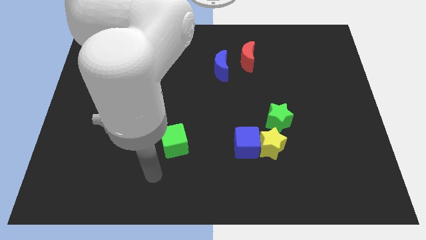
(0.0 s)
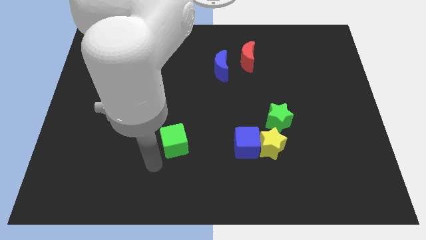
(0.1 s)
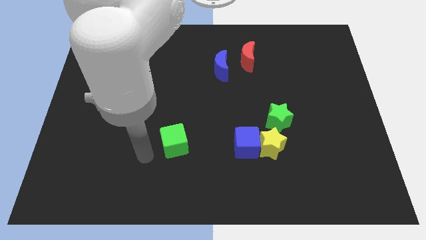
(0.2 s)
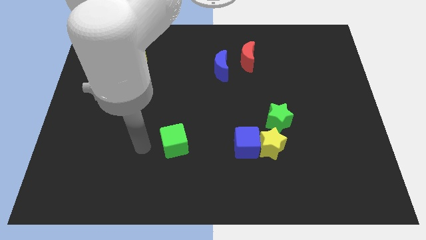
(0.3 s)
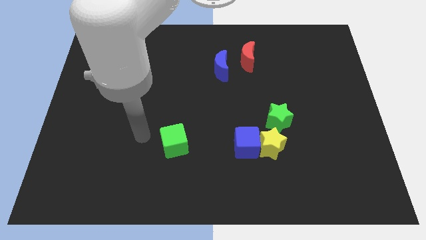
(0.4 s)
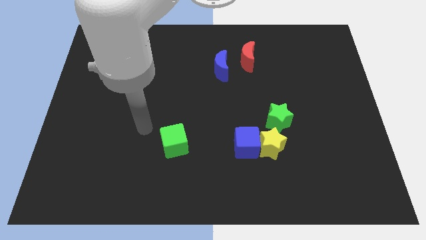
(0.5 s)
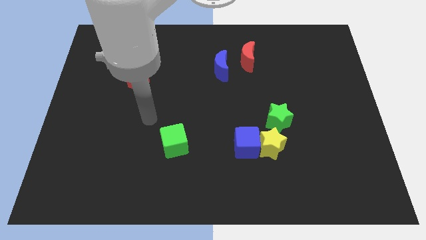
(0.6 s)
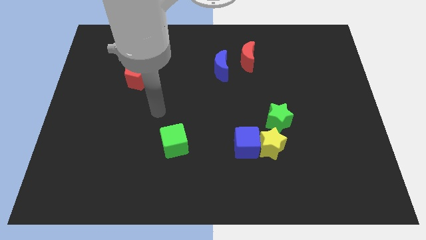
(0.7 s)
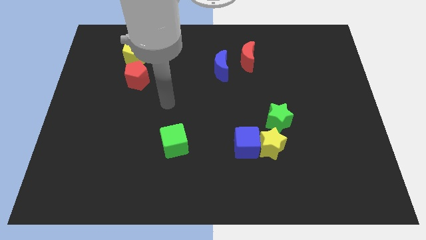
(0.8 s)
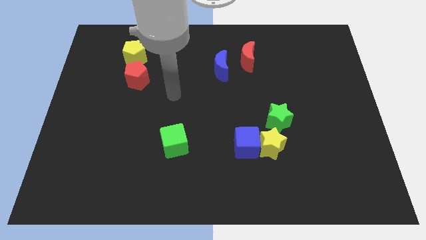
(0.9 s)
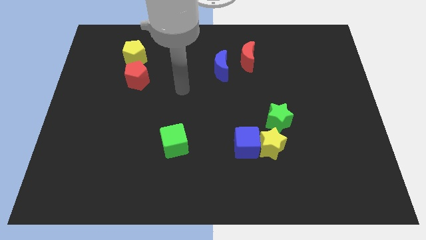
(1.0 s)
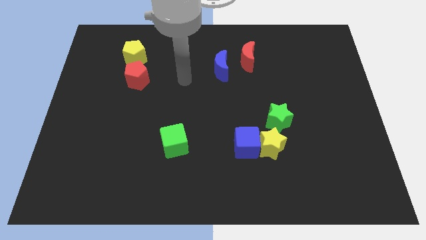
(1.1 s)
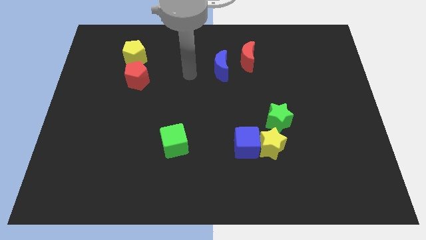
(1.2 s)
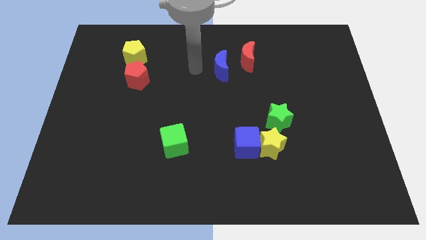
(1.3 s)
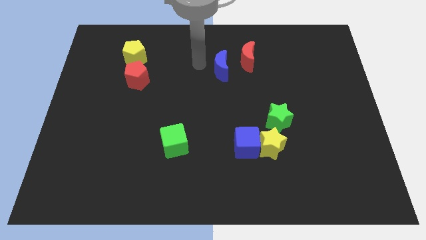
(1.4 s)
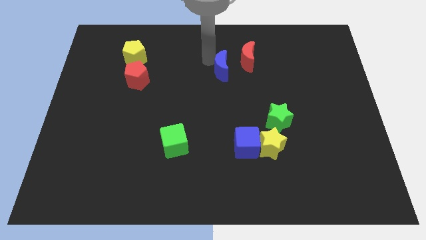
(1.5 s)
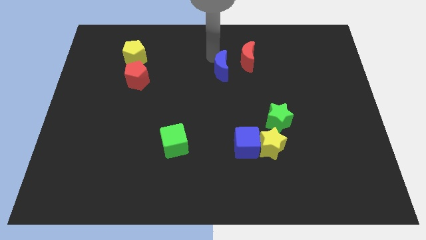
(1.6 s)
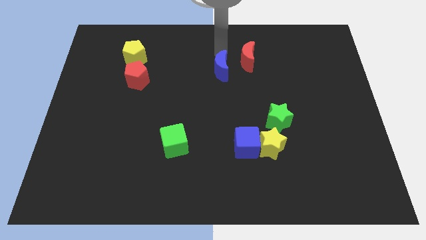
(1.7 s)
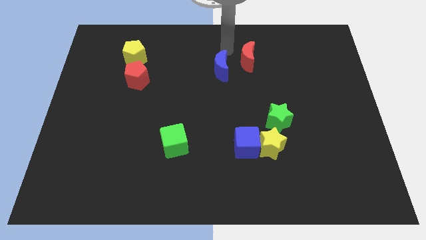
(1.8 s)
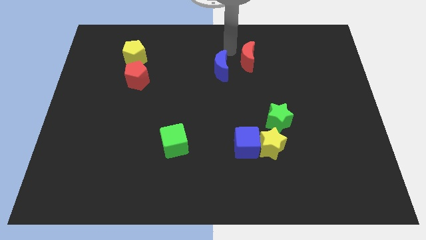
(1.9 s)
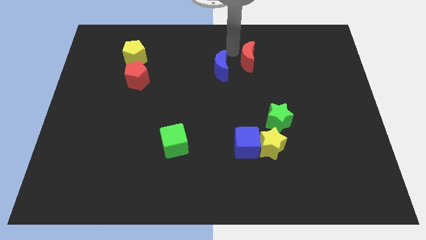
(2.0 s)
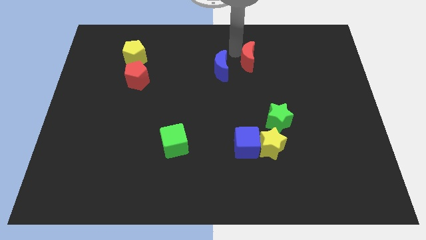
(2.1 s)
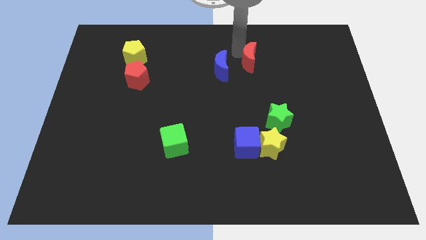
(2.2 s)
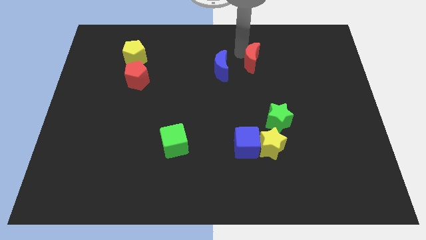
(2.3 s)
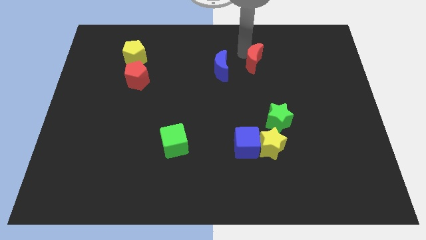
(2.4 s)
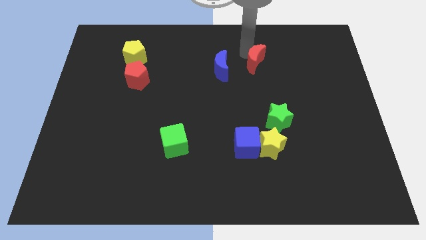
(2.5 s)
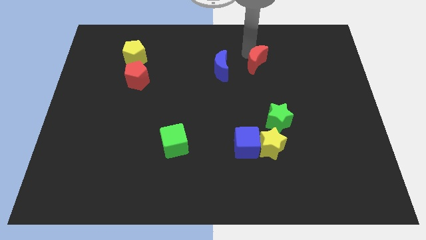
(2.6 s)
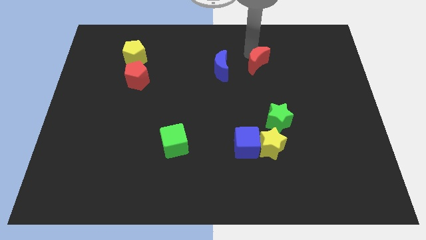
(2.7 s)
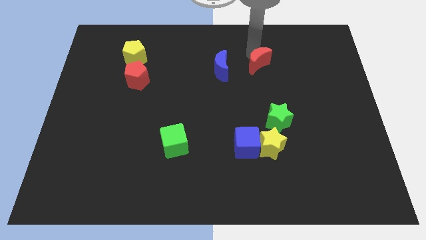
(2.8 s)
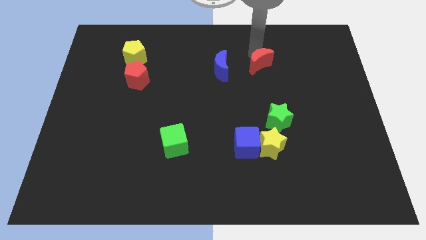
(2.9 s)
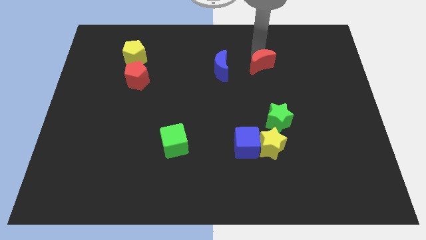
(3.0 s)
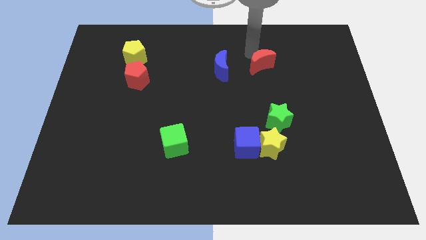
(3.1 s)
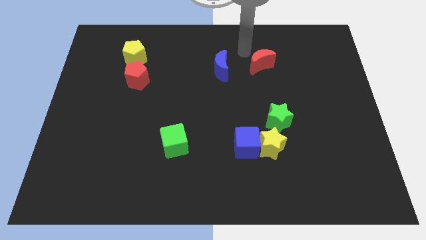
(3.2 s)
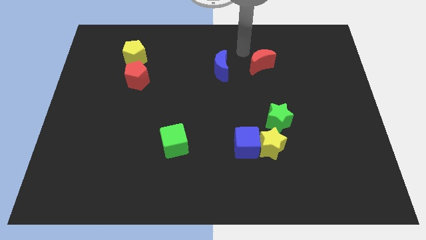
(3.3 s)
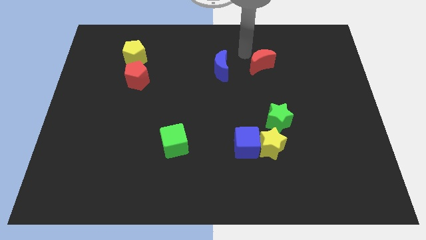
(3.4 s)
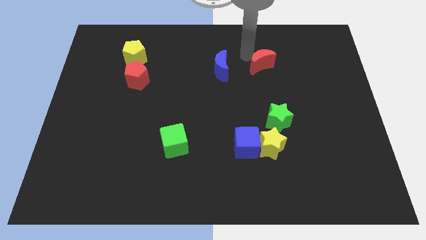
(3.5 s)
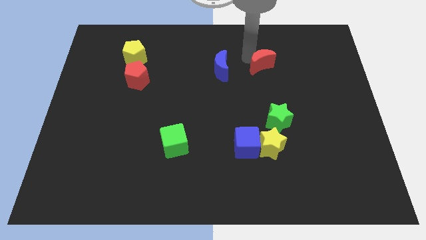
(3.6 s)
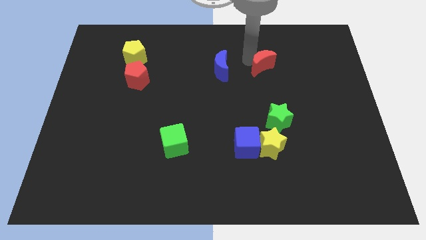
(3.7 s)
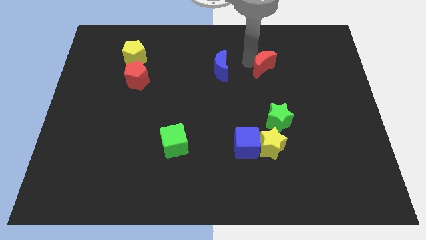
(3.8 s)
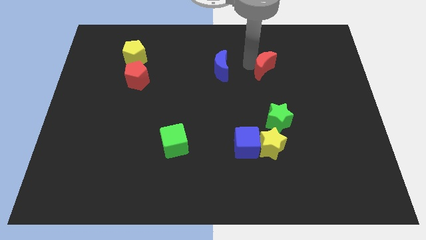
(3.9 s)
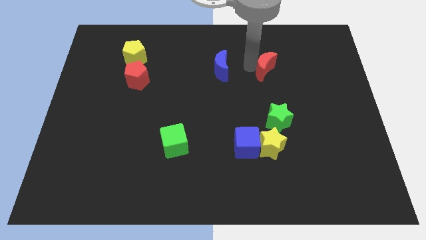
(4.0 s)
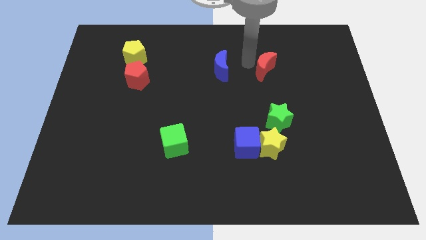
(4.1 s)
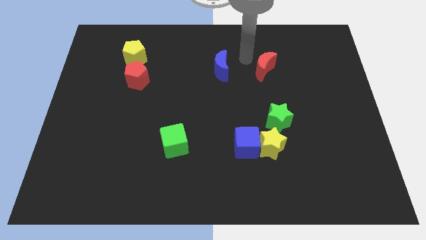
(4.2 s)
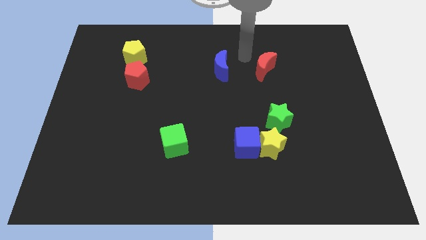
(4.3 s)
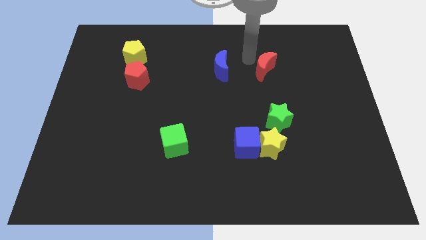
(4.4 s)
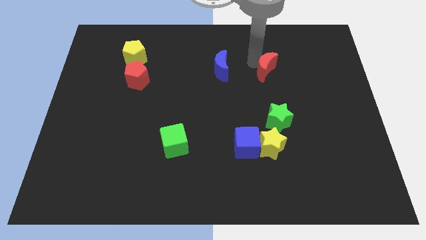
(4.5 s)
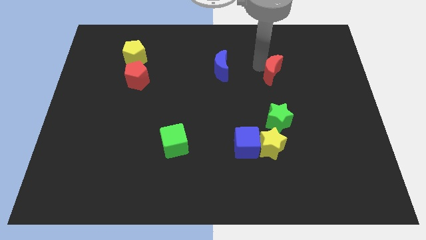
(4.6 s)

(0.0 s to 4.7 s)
slightly slide the red moon down and right diagonally

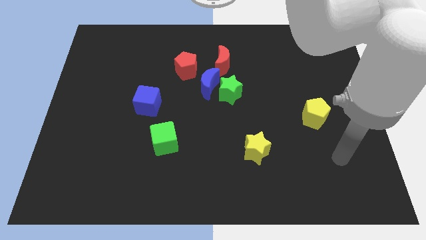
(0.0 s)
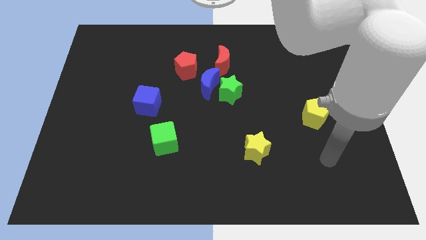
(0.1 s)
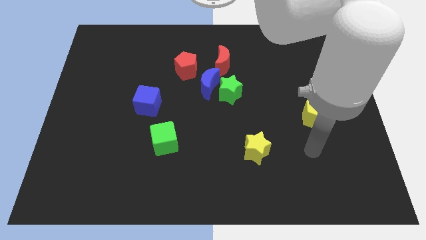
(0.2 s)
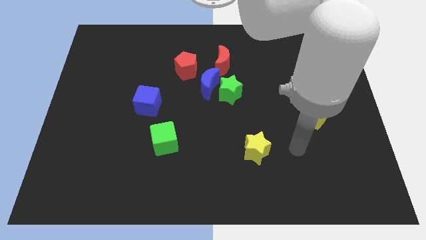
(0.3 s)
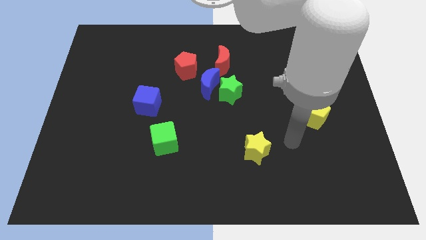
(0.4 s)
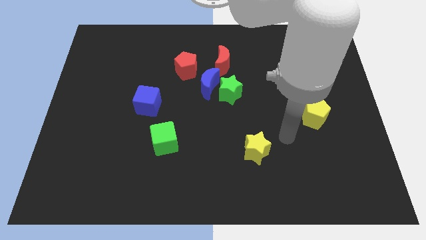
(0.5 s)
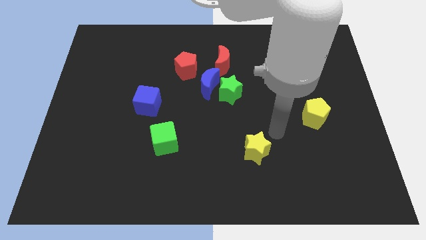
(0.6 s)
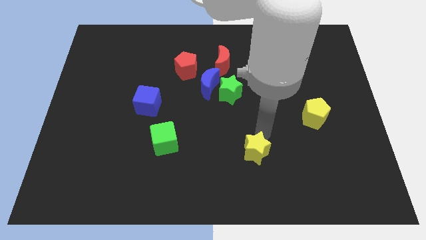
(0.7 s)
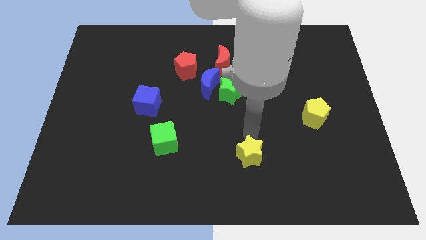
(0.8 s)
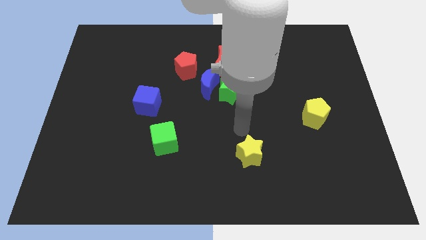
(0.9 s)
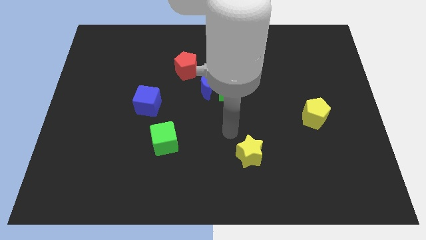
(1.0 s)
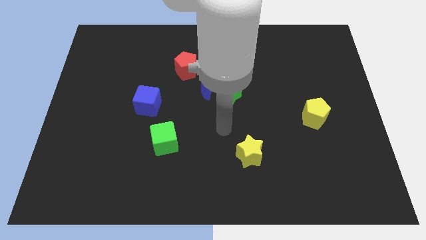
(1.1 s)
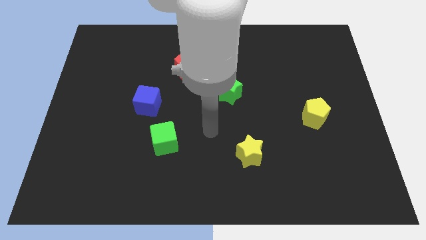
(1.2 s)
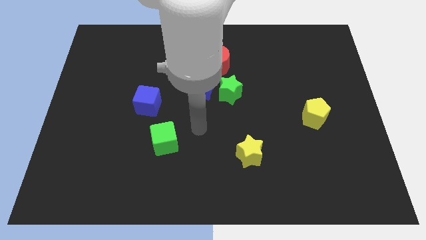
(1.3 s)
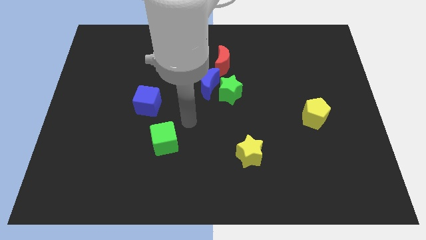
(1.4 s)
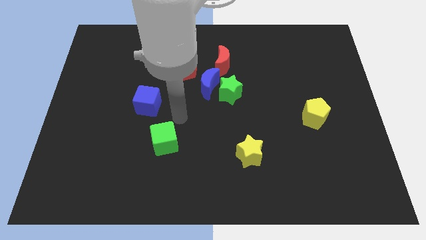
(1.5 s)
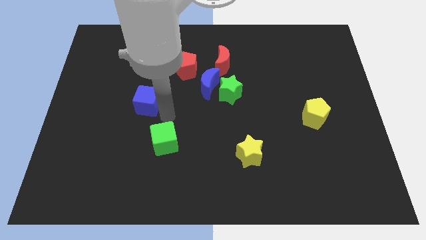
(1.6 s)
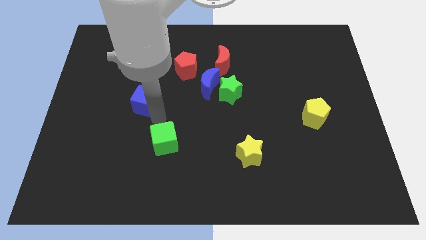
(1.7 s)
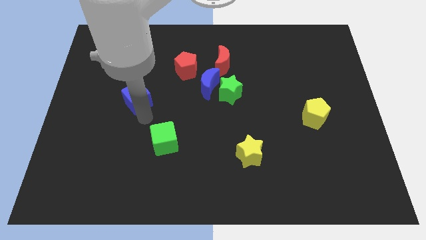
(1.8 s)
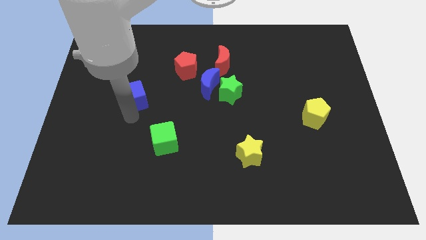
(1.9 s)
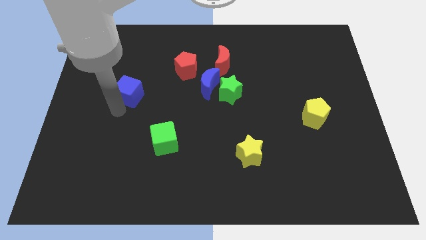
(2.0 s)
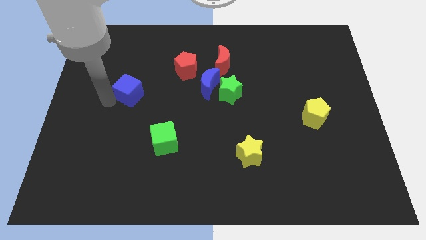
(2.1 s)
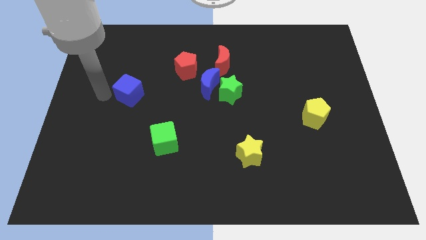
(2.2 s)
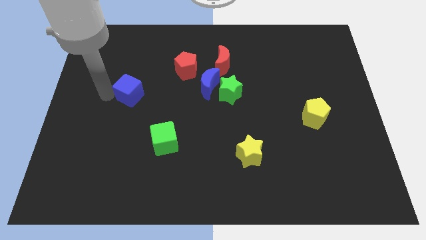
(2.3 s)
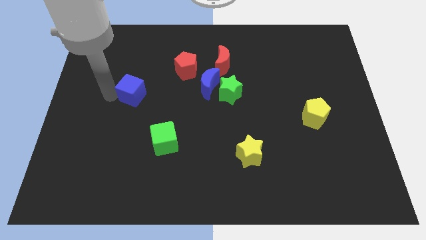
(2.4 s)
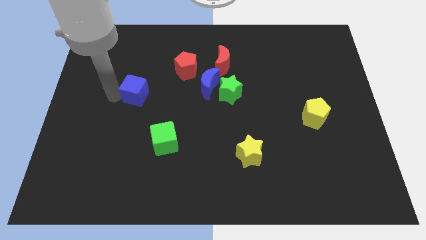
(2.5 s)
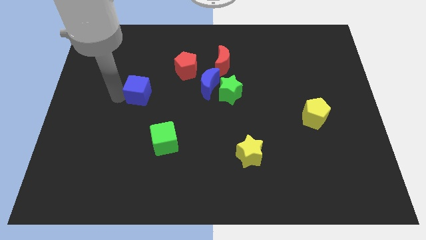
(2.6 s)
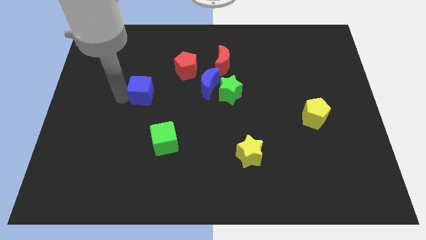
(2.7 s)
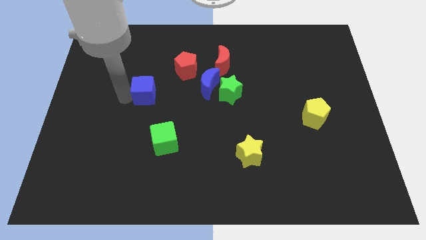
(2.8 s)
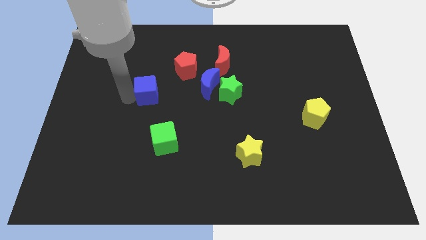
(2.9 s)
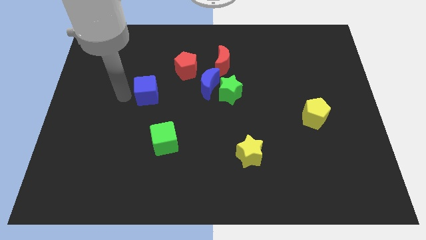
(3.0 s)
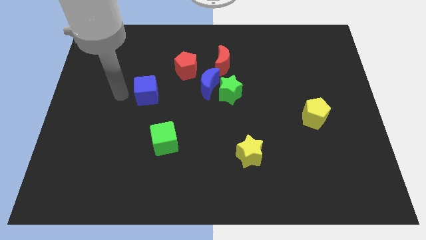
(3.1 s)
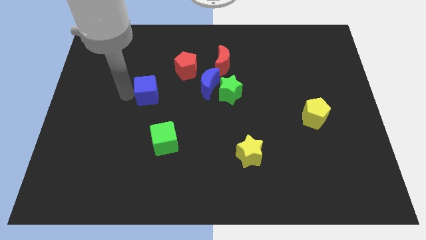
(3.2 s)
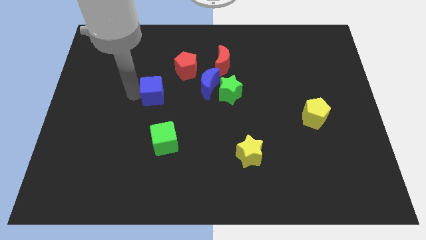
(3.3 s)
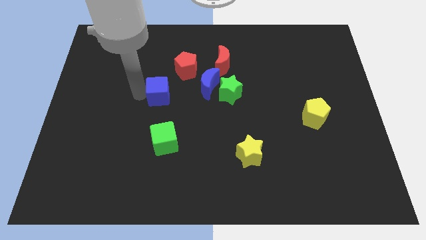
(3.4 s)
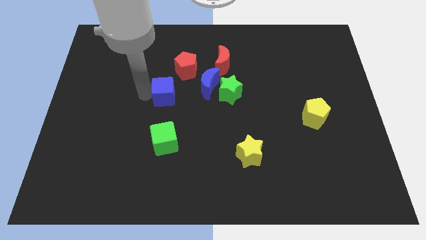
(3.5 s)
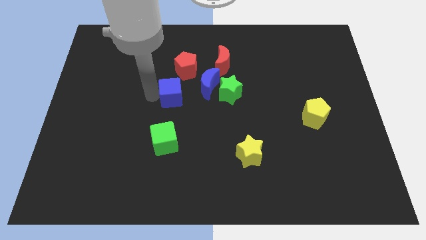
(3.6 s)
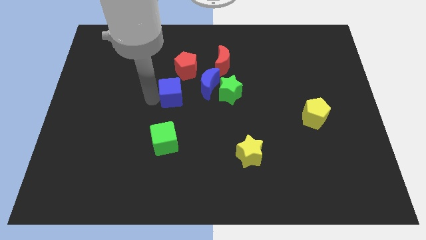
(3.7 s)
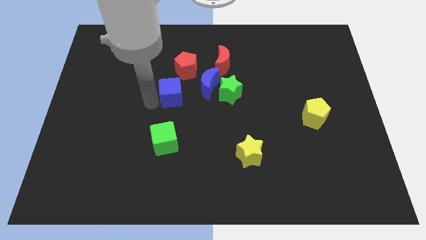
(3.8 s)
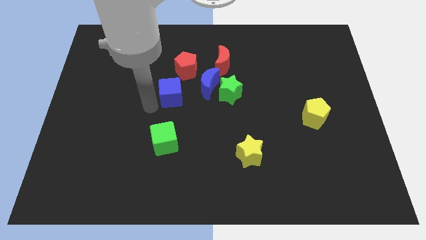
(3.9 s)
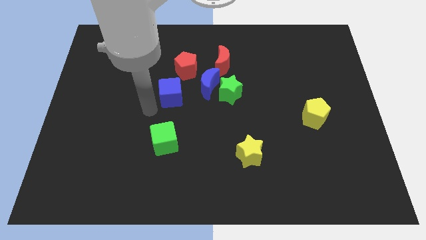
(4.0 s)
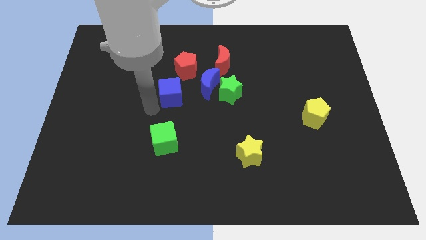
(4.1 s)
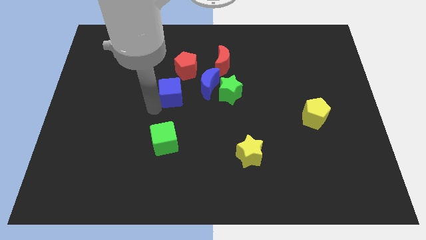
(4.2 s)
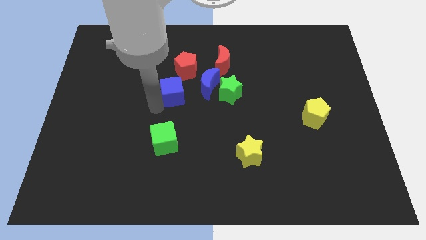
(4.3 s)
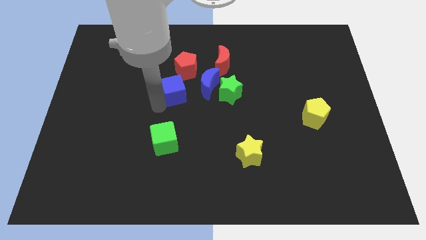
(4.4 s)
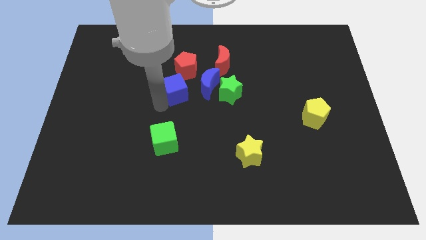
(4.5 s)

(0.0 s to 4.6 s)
push the blue cube a little bit diagonally upwards and to the right
